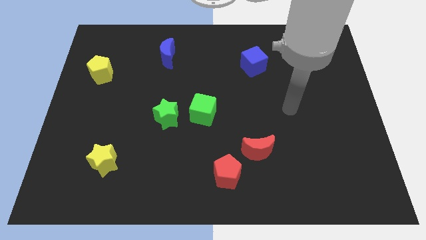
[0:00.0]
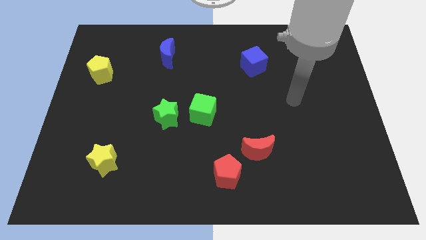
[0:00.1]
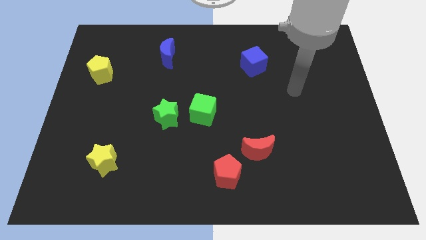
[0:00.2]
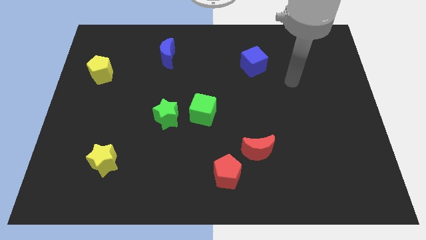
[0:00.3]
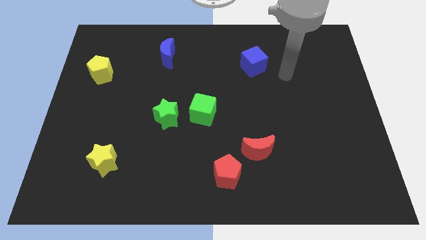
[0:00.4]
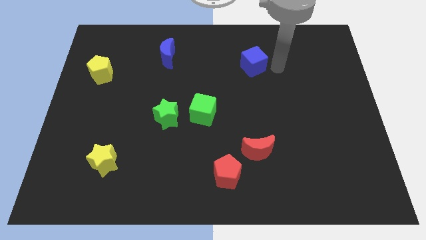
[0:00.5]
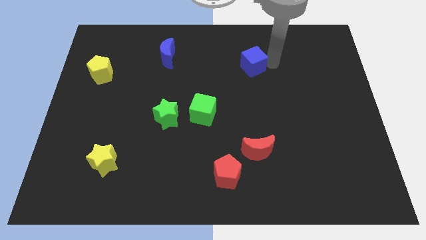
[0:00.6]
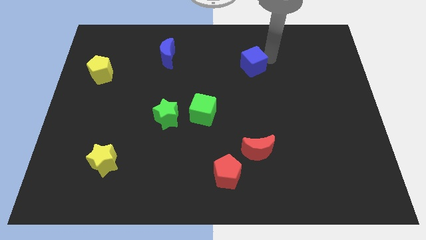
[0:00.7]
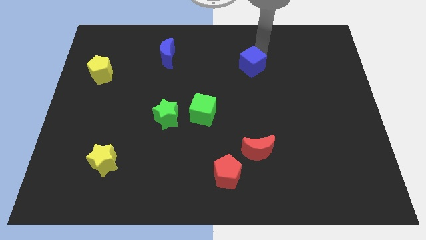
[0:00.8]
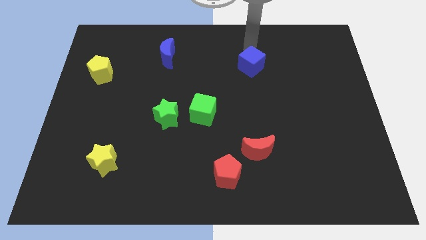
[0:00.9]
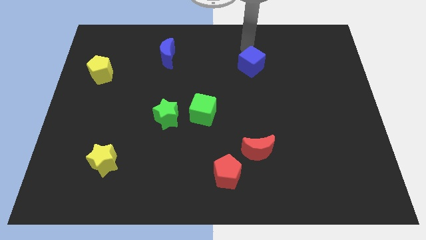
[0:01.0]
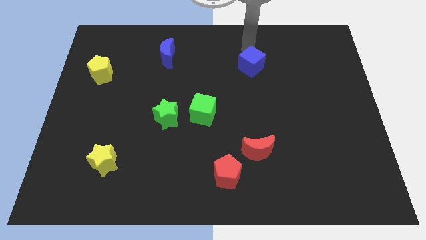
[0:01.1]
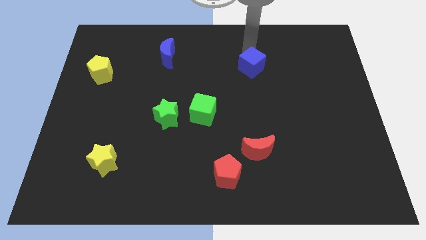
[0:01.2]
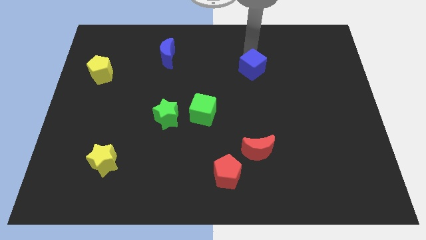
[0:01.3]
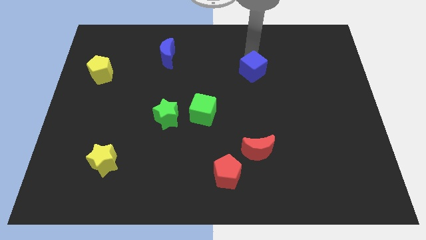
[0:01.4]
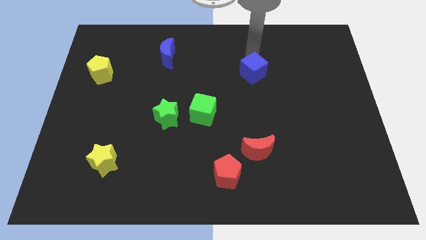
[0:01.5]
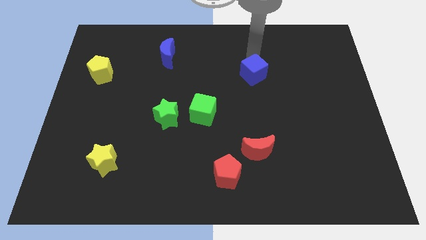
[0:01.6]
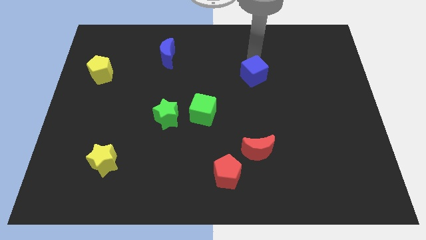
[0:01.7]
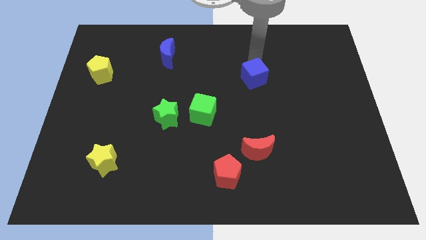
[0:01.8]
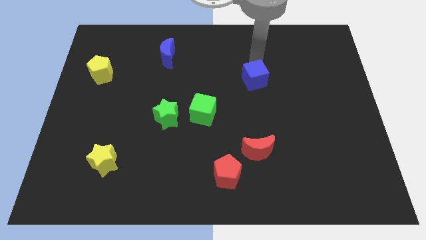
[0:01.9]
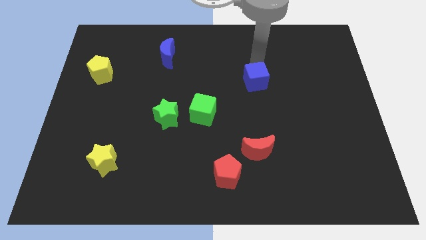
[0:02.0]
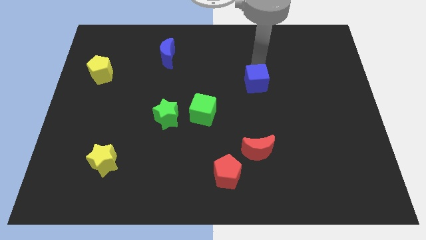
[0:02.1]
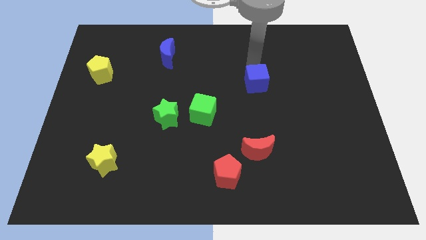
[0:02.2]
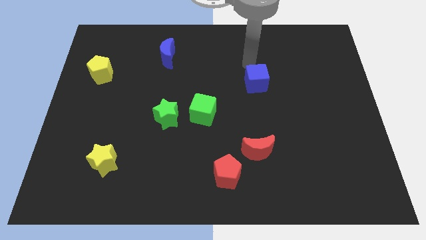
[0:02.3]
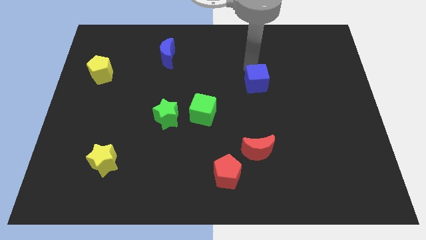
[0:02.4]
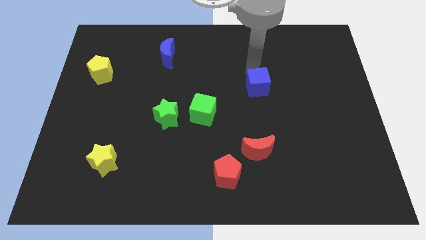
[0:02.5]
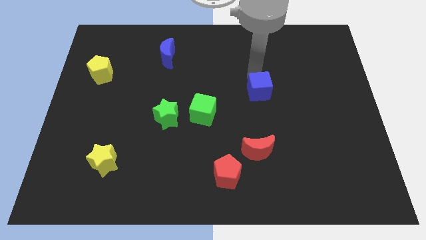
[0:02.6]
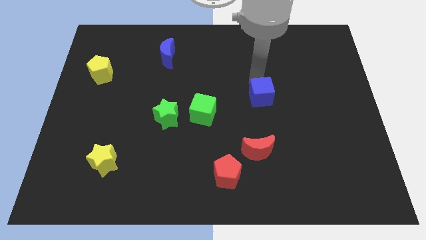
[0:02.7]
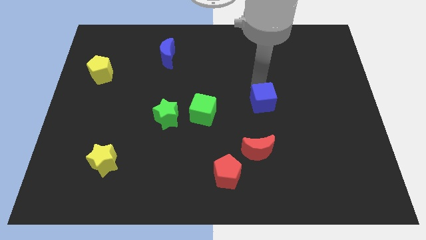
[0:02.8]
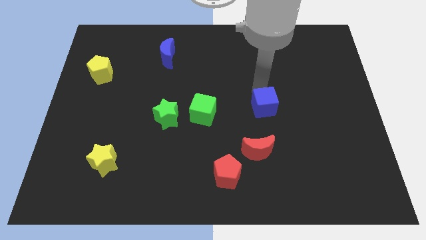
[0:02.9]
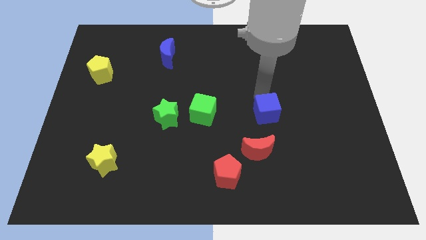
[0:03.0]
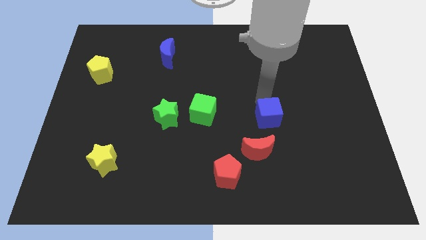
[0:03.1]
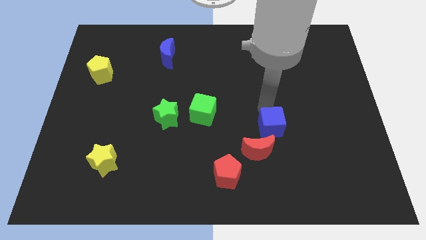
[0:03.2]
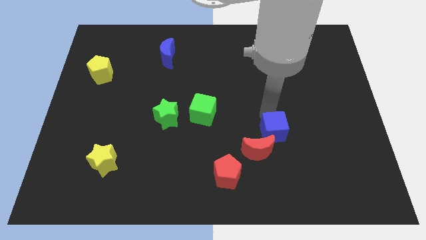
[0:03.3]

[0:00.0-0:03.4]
slide the blue cube downwards

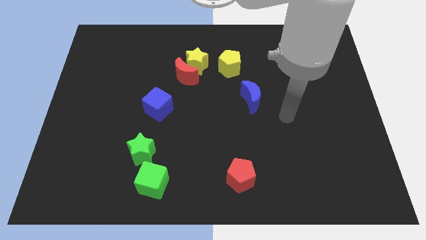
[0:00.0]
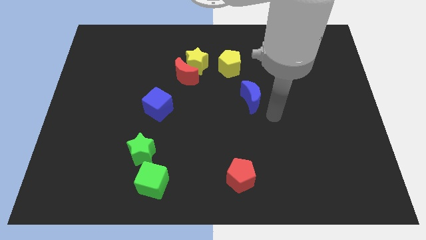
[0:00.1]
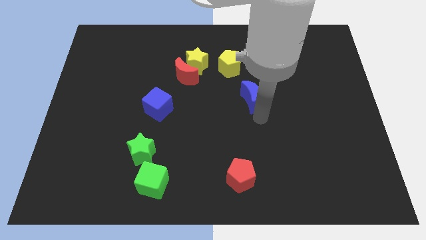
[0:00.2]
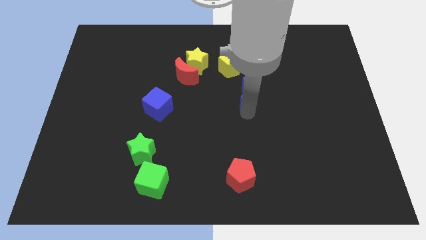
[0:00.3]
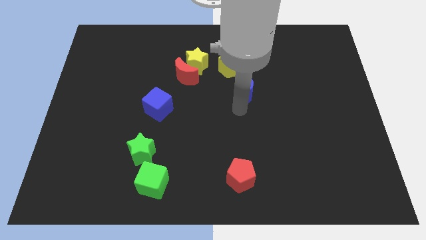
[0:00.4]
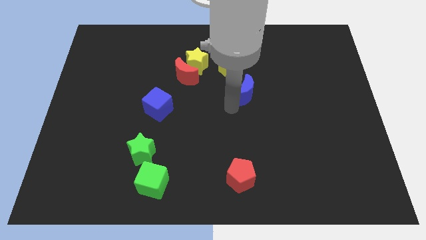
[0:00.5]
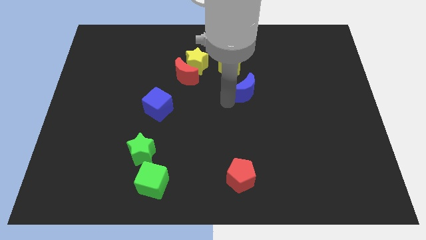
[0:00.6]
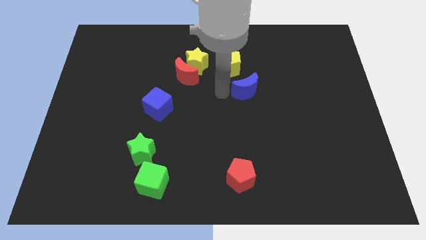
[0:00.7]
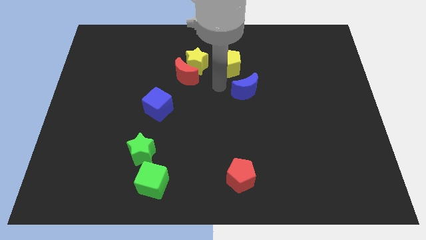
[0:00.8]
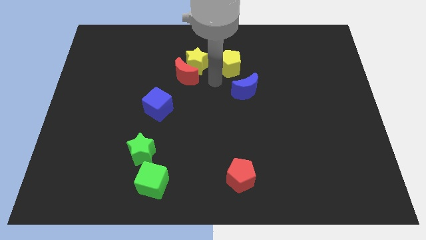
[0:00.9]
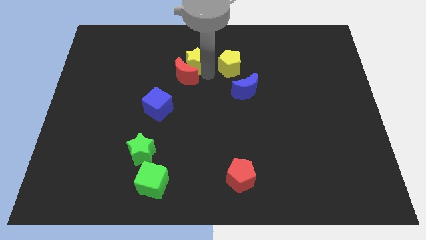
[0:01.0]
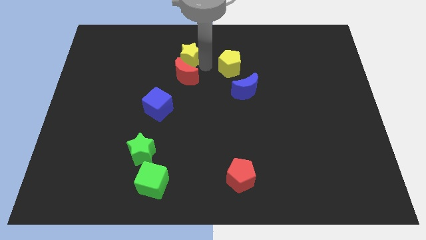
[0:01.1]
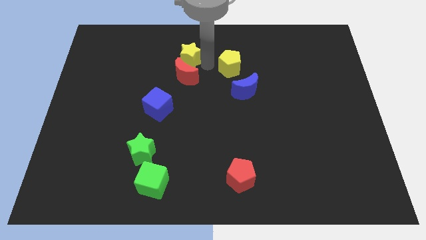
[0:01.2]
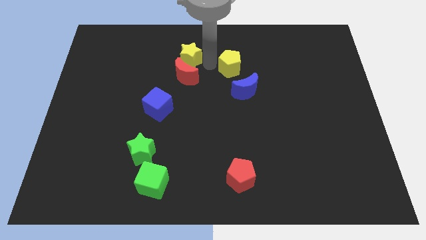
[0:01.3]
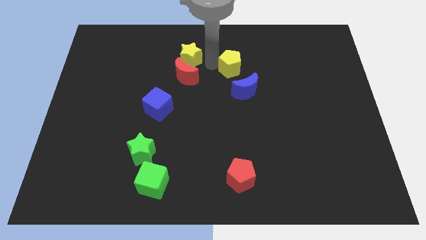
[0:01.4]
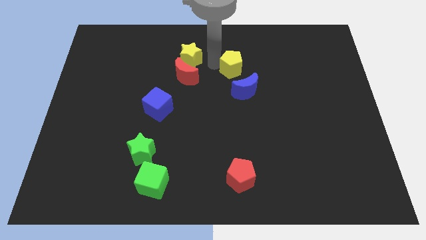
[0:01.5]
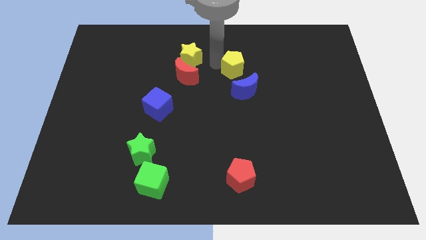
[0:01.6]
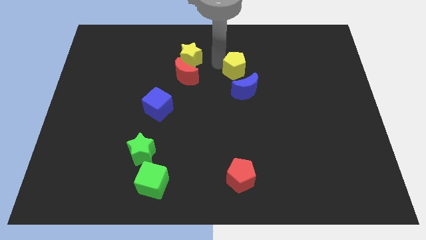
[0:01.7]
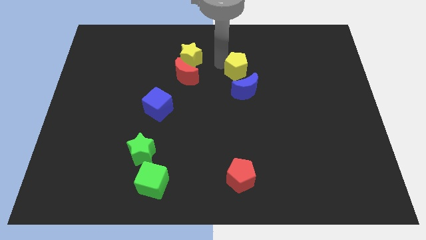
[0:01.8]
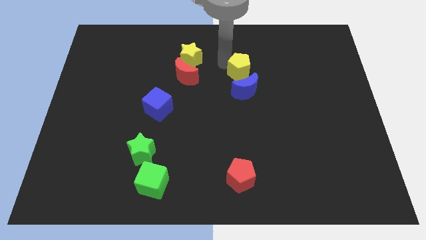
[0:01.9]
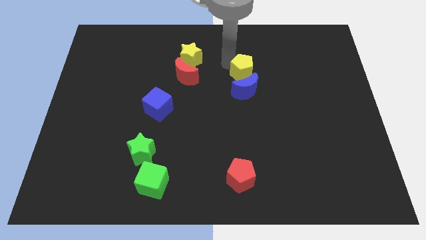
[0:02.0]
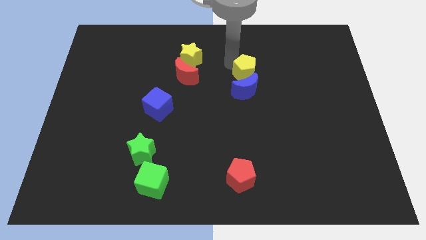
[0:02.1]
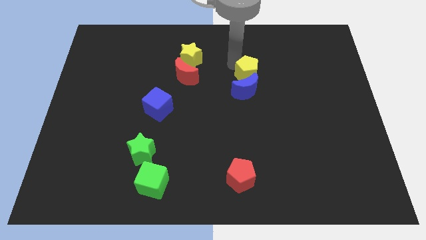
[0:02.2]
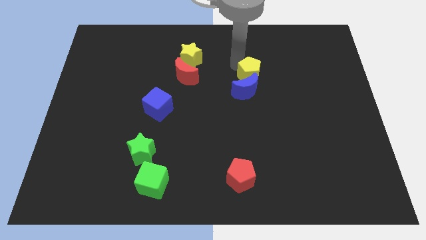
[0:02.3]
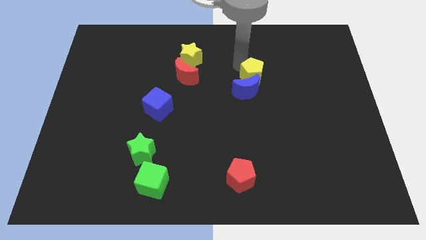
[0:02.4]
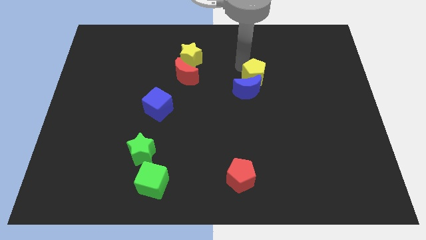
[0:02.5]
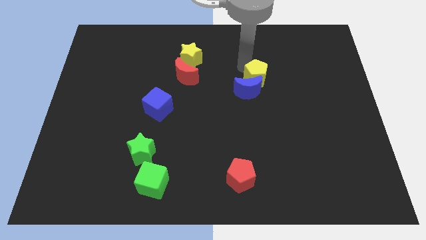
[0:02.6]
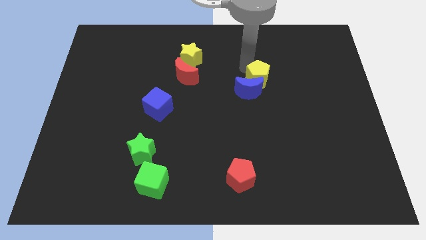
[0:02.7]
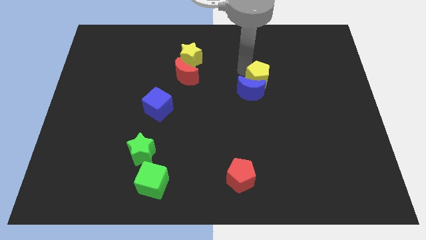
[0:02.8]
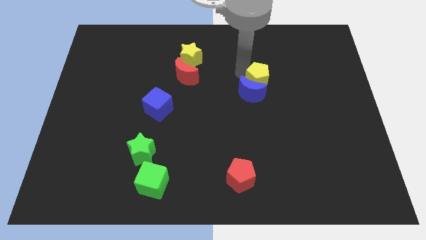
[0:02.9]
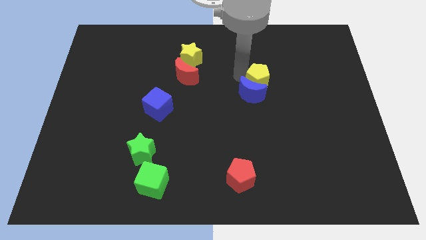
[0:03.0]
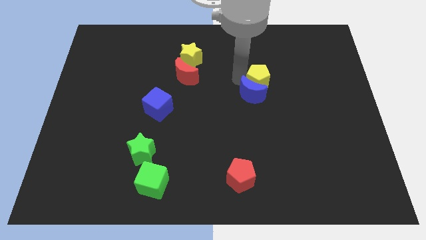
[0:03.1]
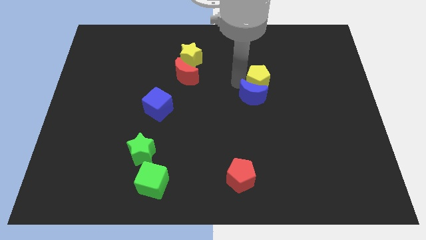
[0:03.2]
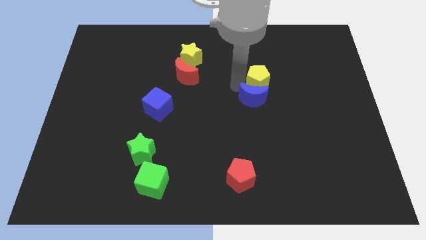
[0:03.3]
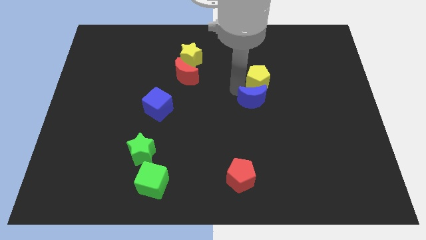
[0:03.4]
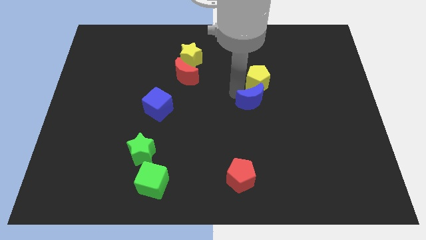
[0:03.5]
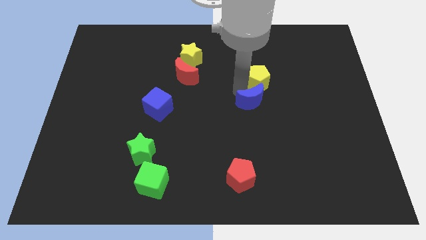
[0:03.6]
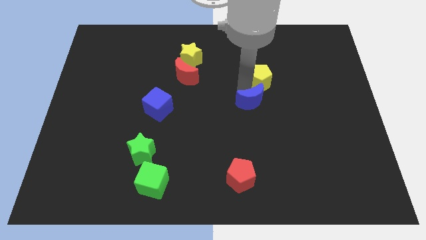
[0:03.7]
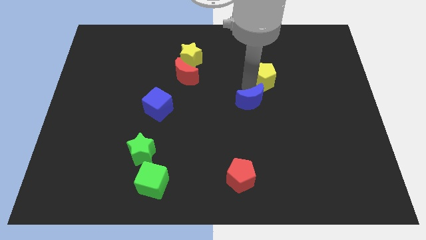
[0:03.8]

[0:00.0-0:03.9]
slide the yellow pentagon to the right slightly

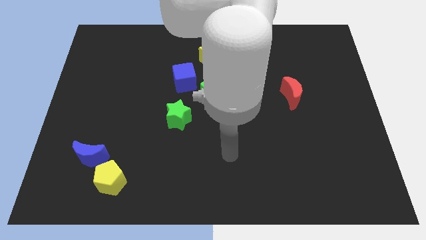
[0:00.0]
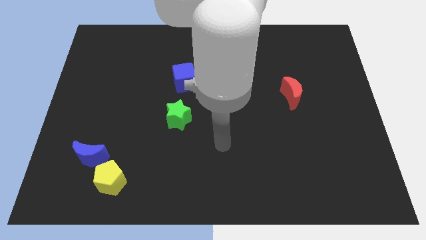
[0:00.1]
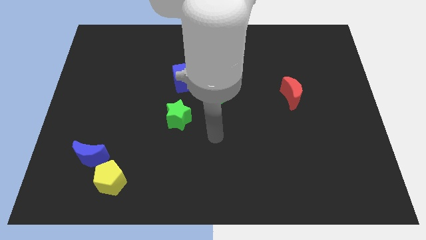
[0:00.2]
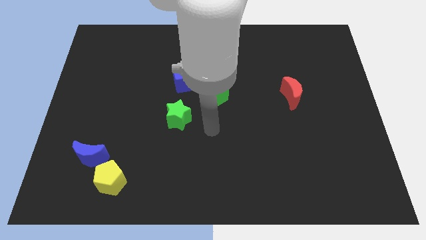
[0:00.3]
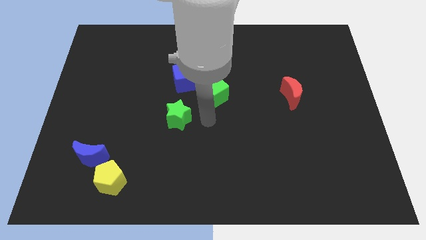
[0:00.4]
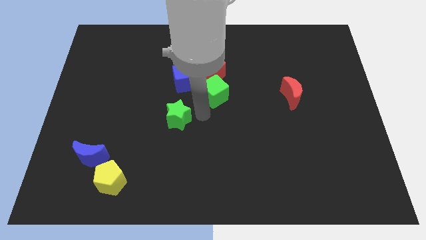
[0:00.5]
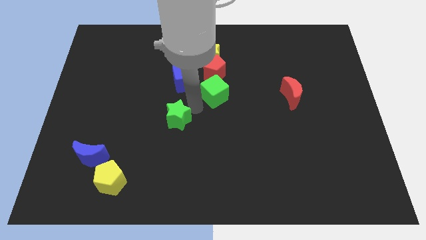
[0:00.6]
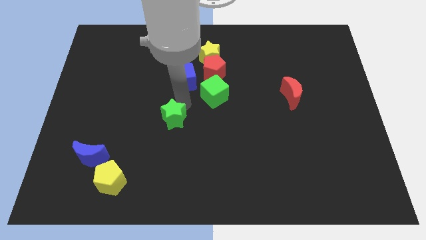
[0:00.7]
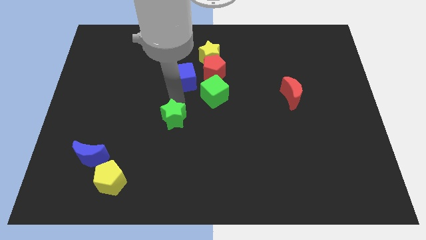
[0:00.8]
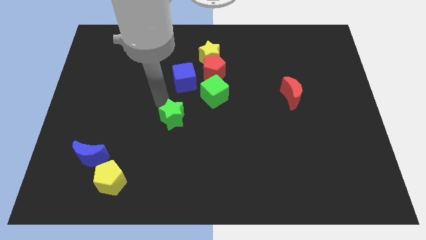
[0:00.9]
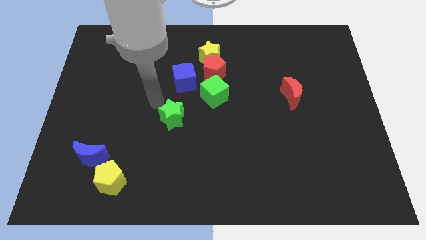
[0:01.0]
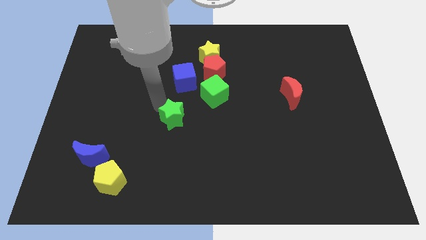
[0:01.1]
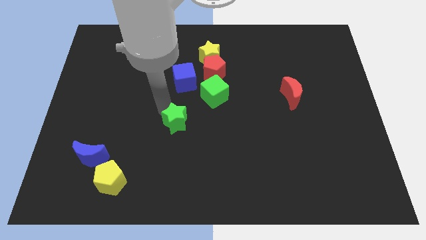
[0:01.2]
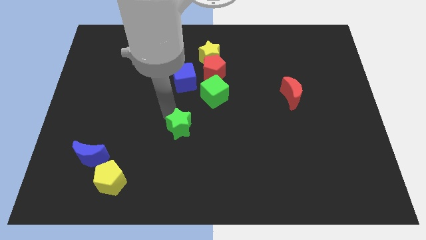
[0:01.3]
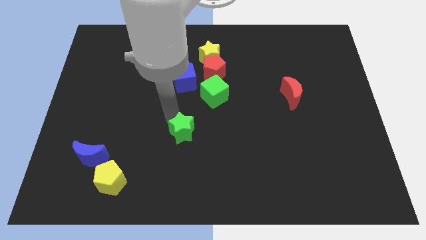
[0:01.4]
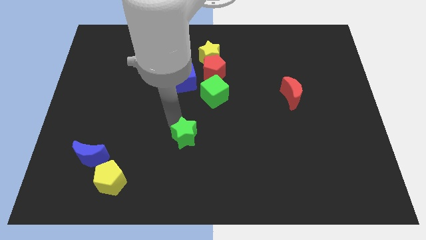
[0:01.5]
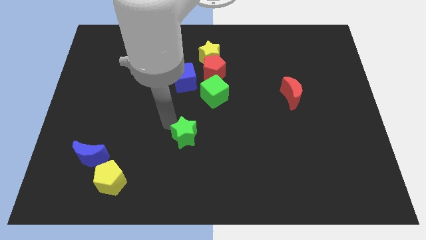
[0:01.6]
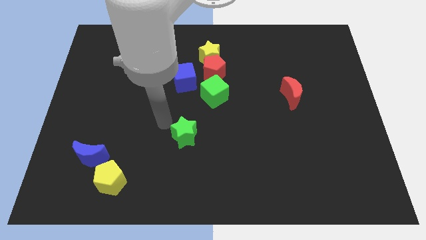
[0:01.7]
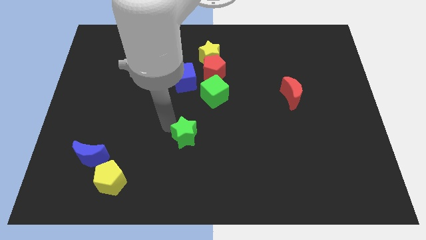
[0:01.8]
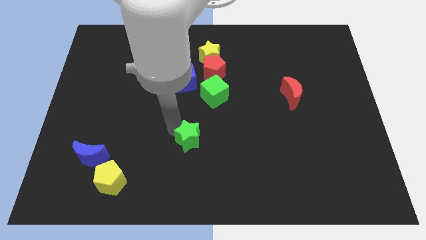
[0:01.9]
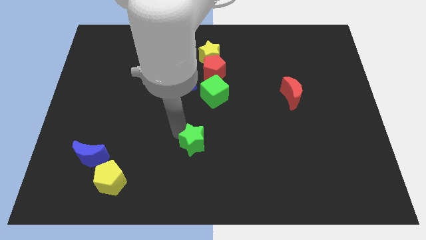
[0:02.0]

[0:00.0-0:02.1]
move the green star slightly down and to the right diagonally
